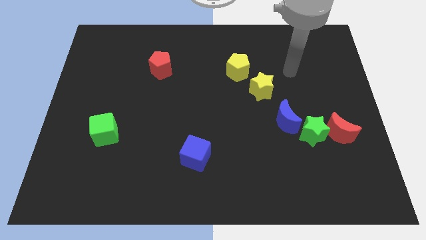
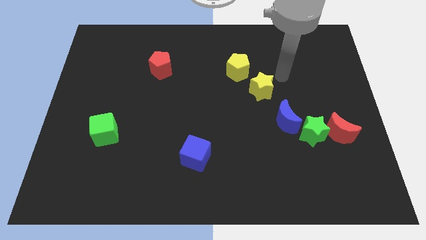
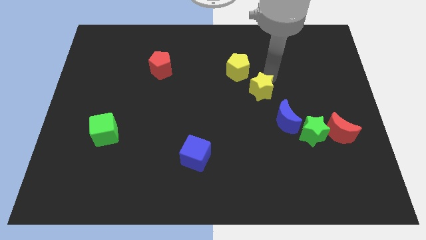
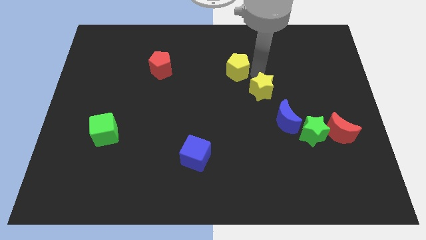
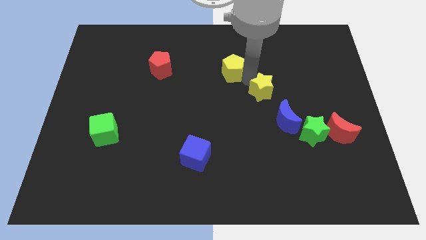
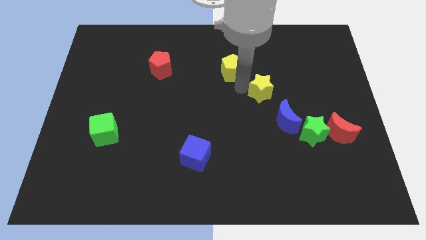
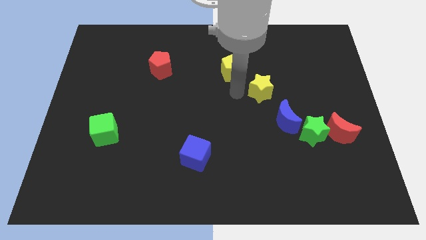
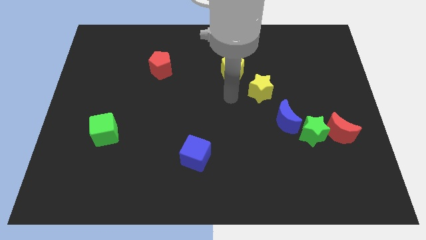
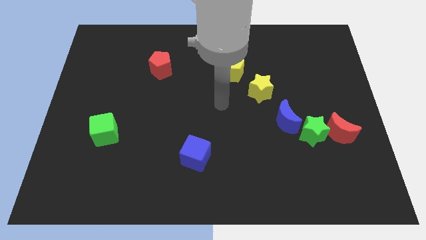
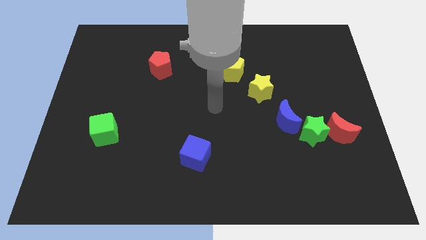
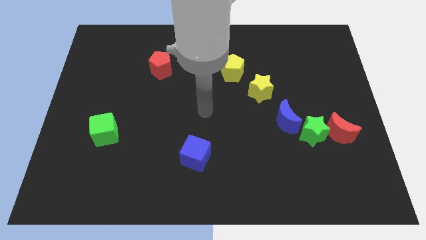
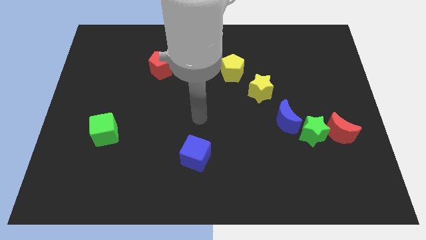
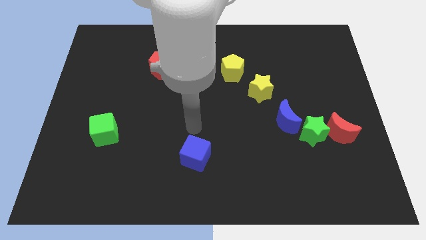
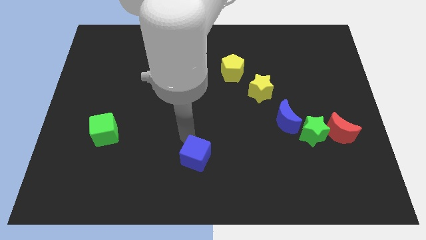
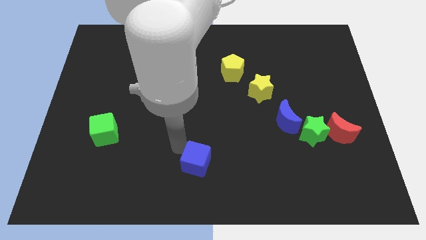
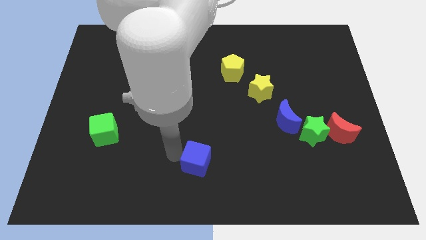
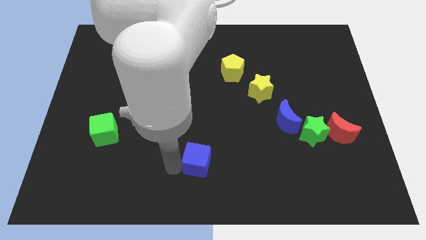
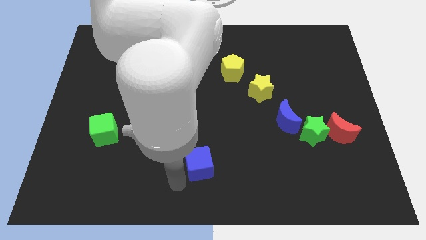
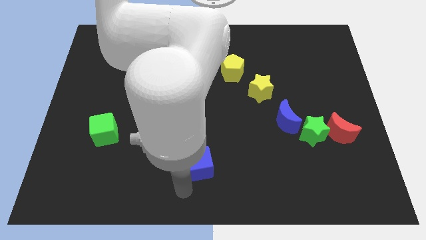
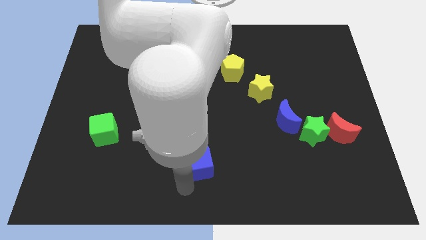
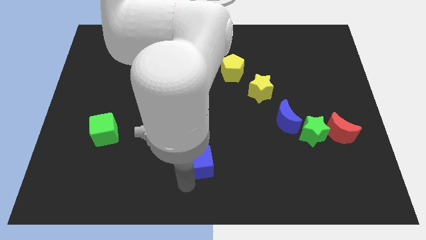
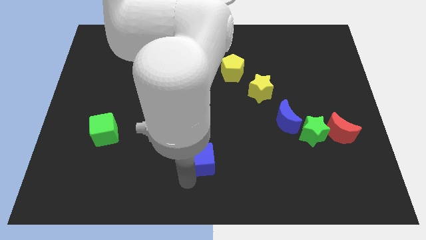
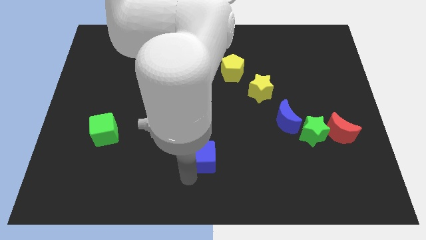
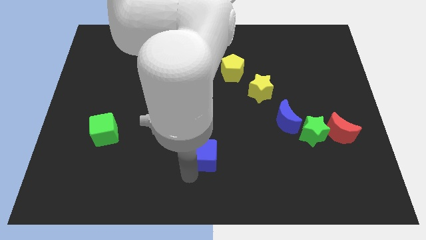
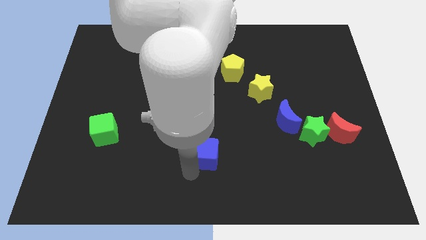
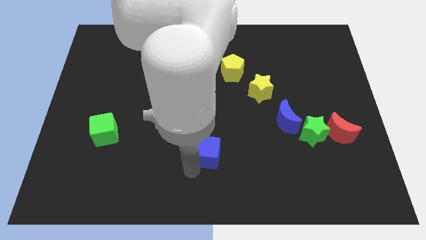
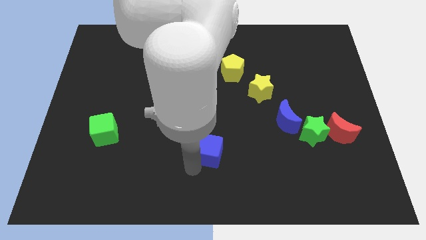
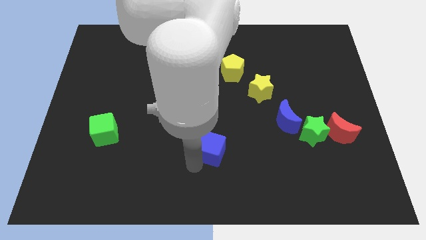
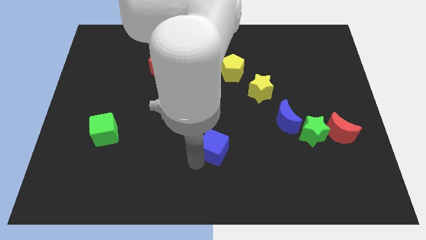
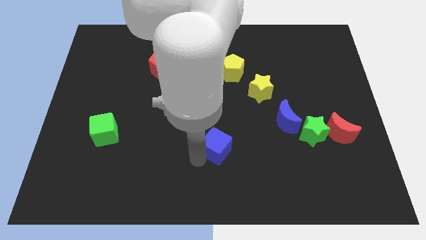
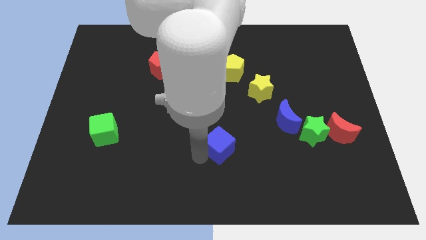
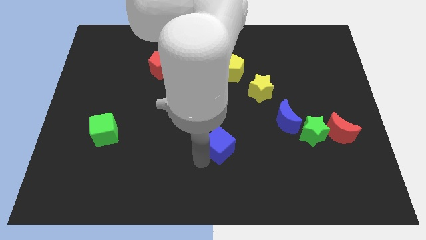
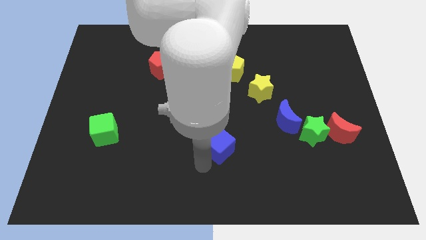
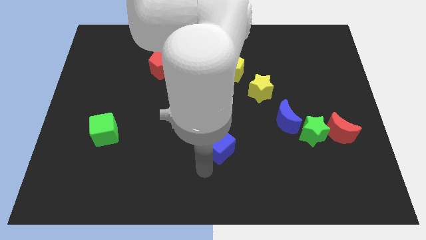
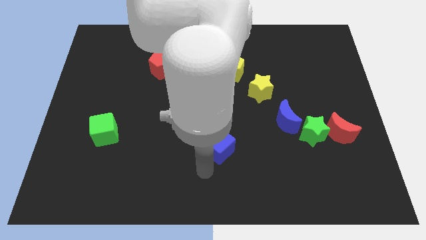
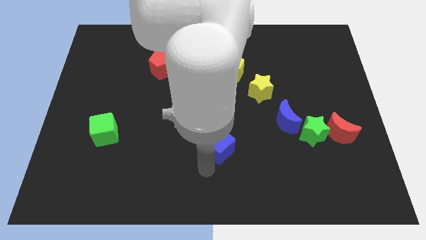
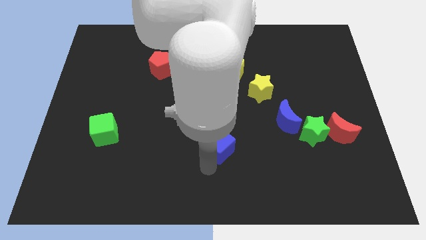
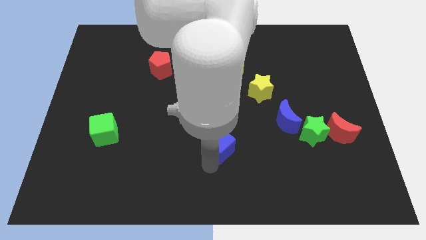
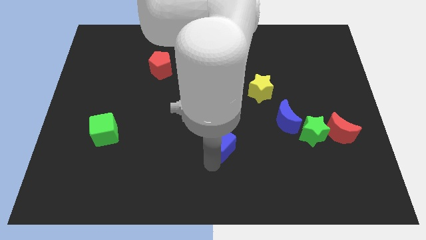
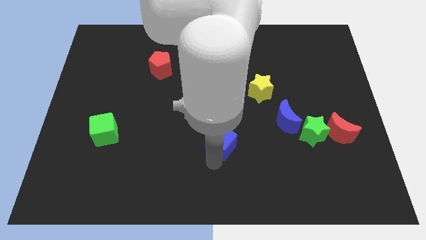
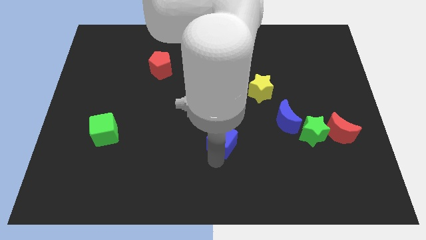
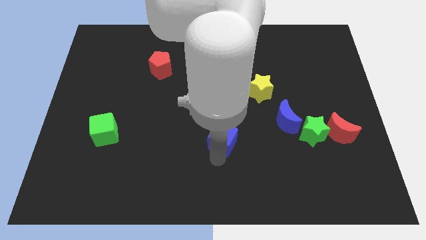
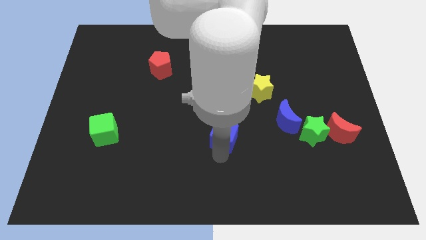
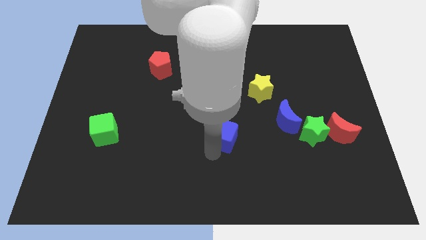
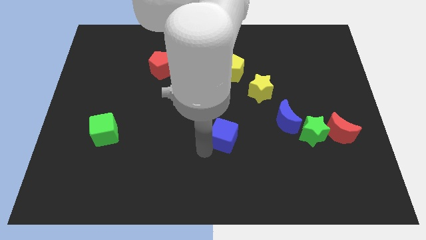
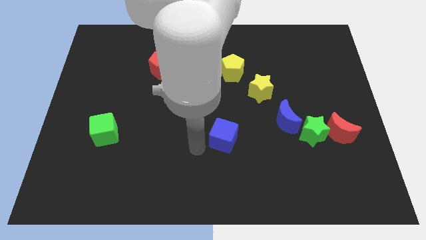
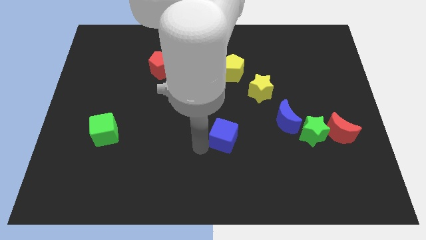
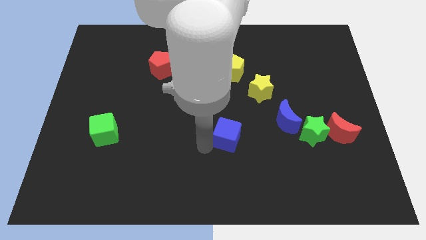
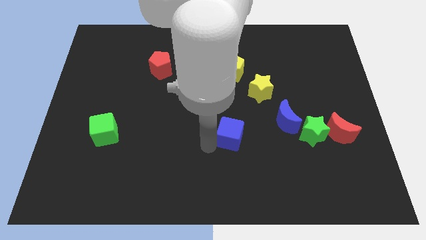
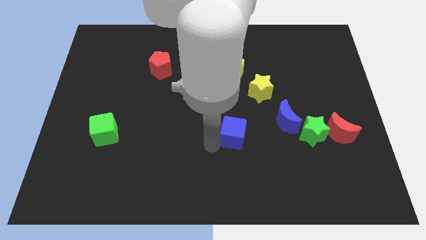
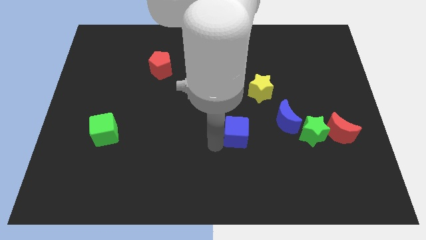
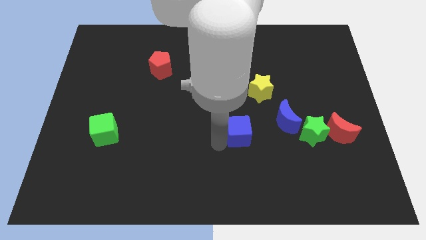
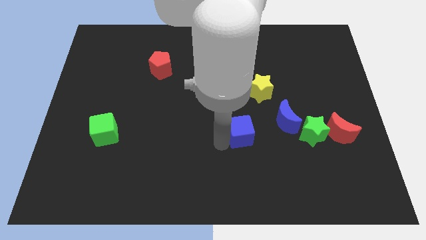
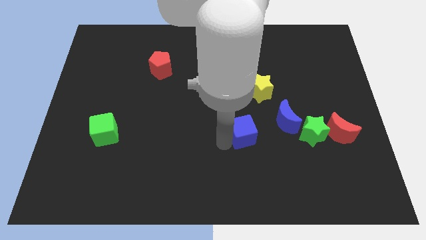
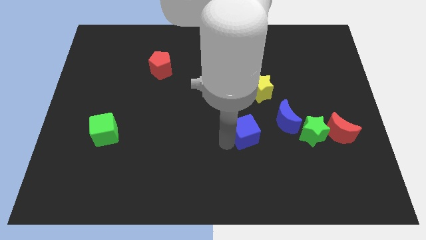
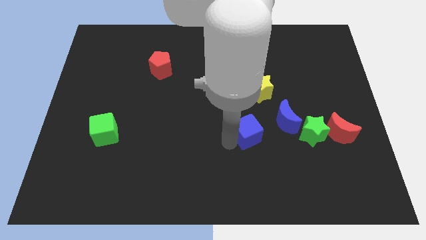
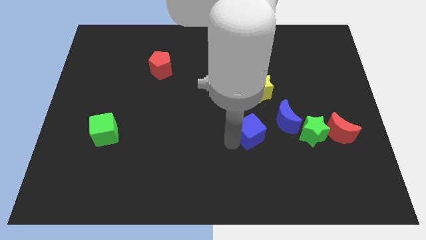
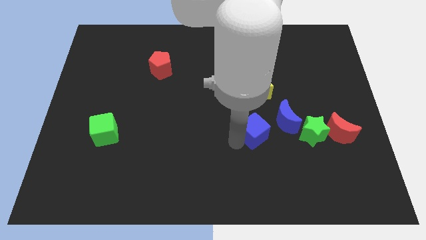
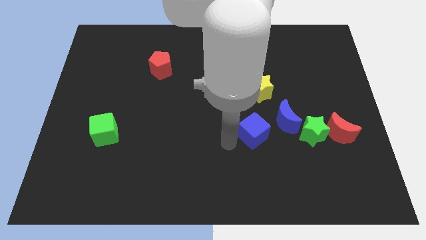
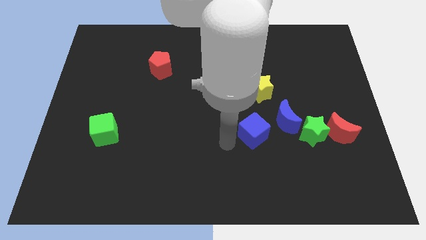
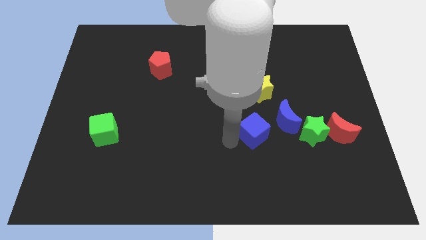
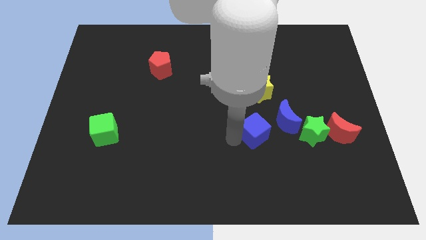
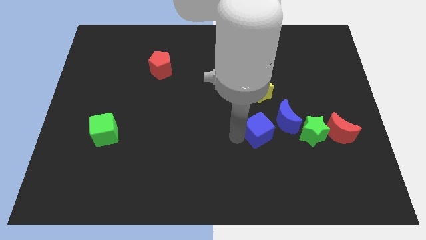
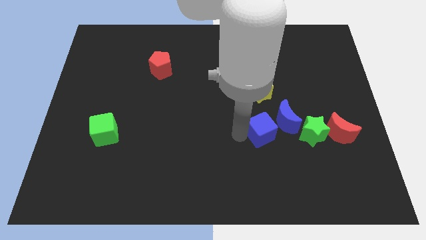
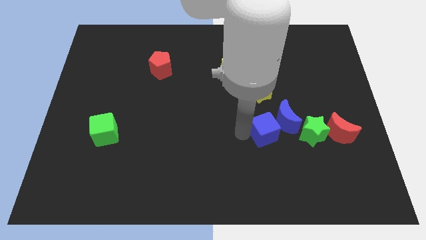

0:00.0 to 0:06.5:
push the blue cube towards the blue moon
